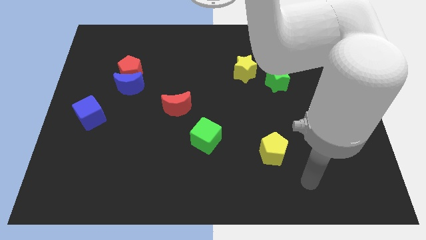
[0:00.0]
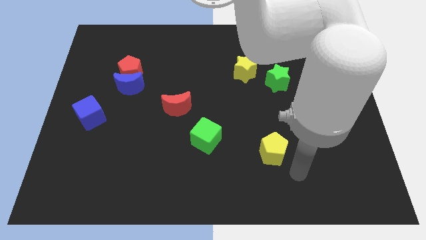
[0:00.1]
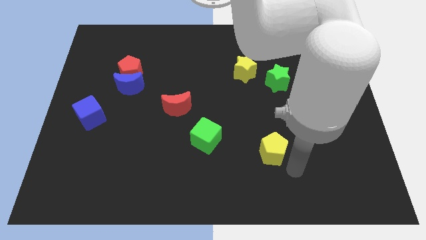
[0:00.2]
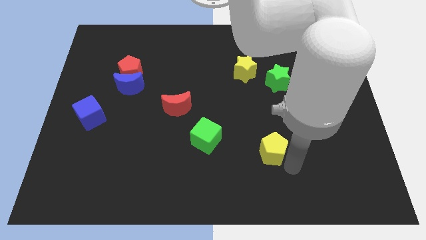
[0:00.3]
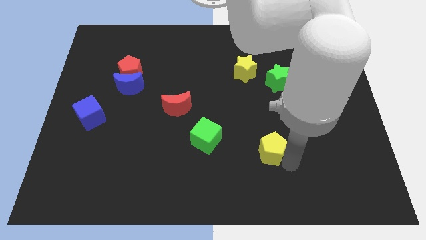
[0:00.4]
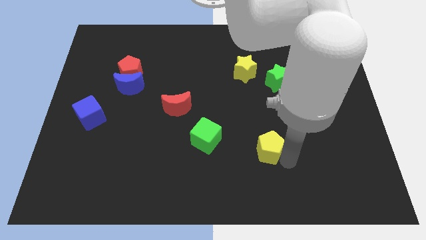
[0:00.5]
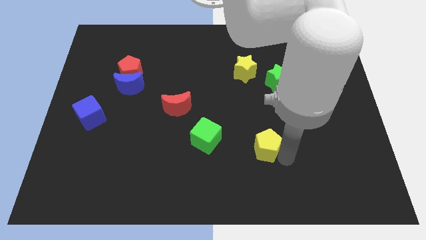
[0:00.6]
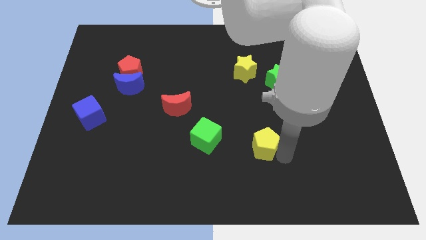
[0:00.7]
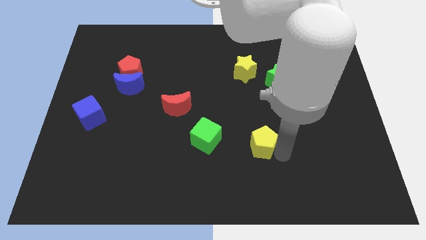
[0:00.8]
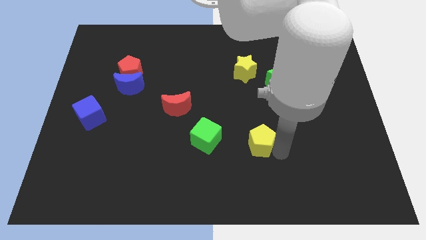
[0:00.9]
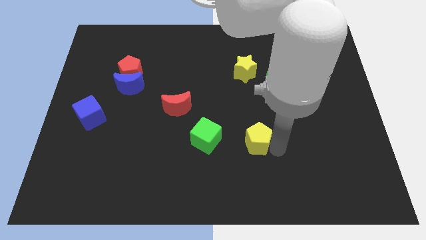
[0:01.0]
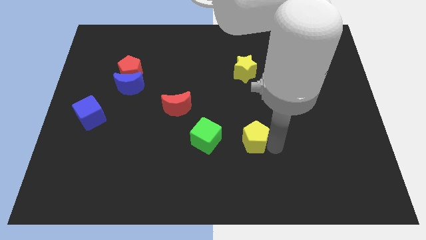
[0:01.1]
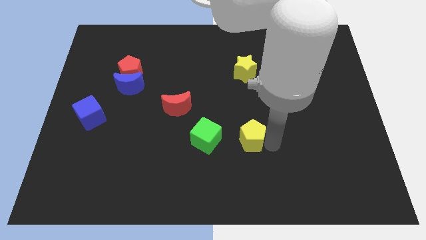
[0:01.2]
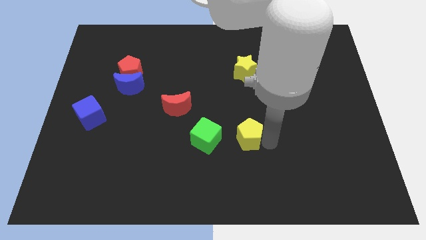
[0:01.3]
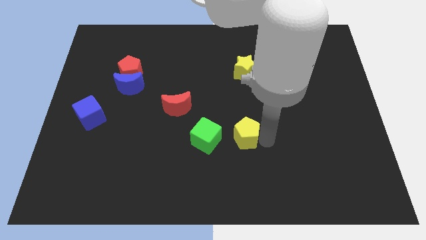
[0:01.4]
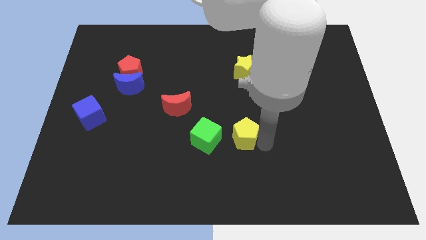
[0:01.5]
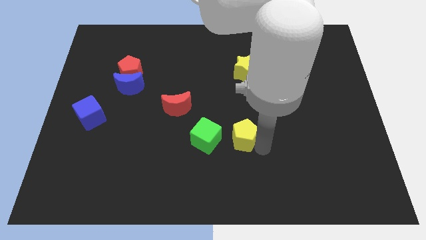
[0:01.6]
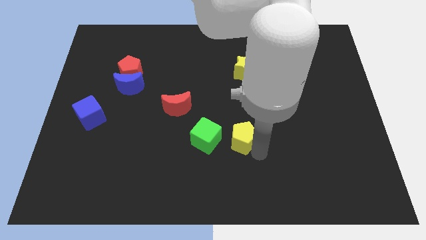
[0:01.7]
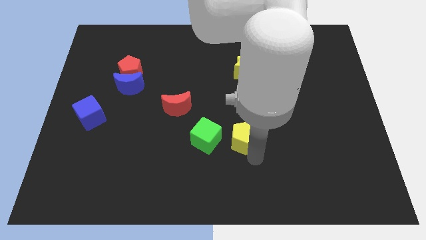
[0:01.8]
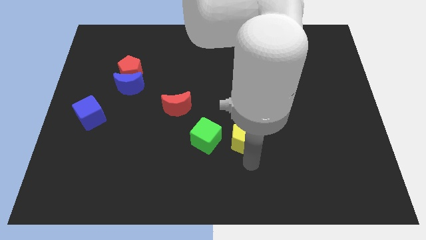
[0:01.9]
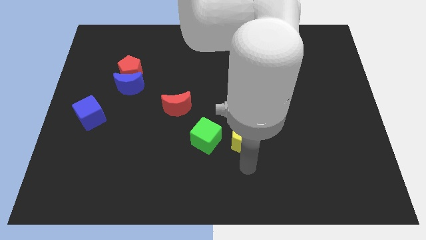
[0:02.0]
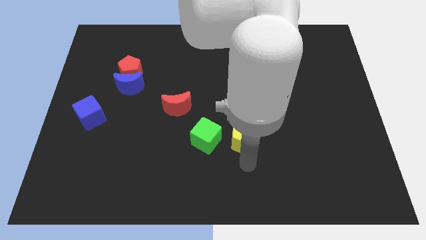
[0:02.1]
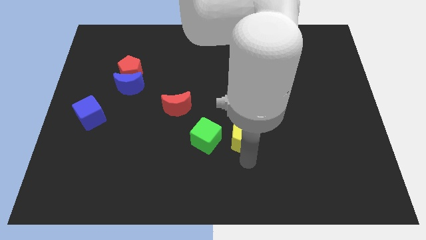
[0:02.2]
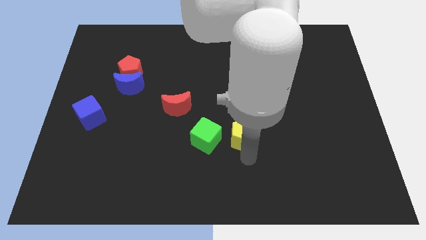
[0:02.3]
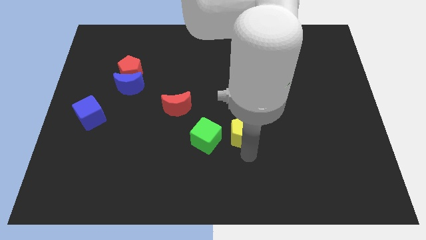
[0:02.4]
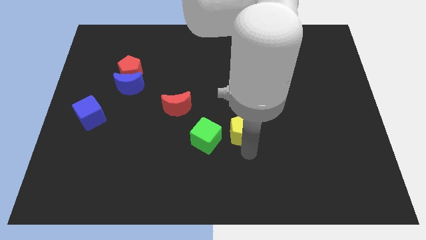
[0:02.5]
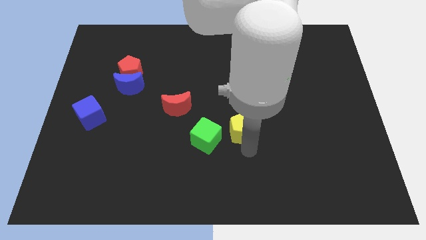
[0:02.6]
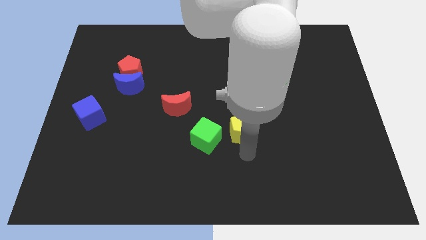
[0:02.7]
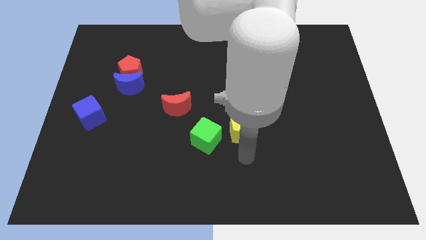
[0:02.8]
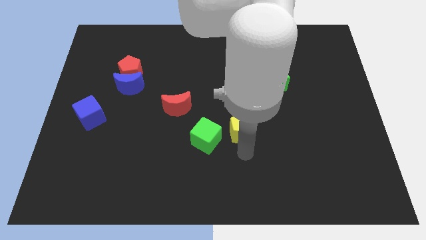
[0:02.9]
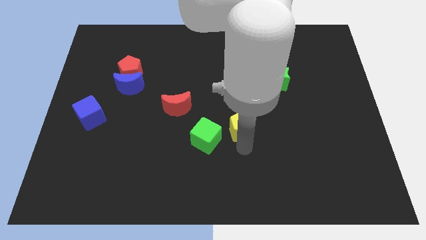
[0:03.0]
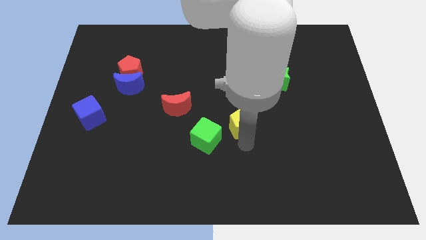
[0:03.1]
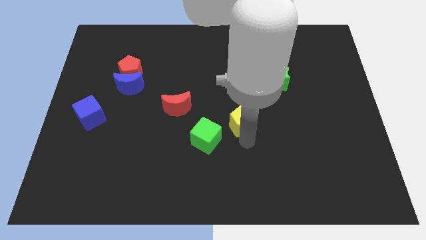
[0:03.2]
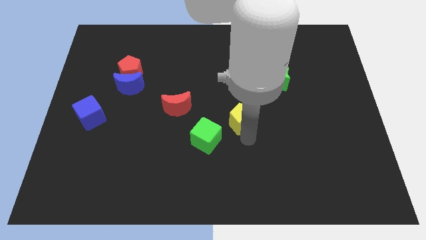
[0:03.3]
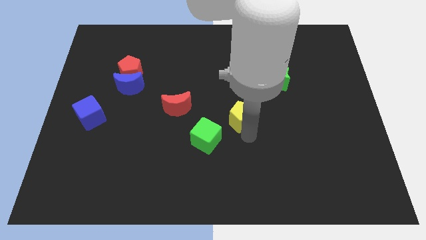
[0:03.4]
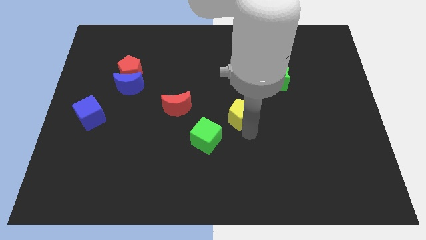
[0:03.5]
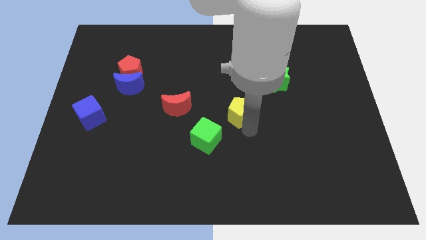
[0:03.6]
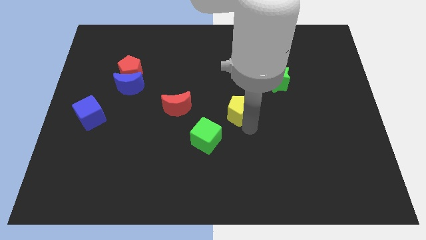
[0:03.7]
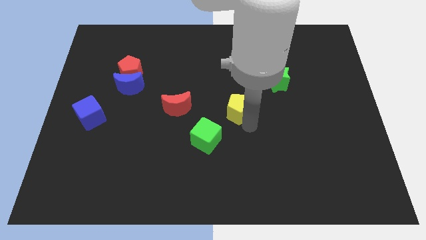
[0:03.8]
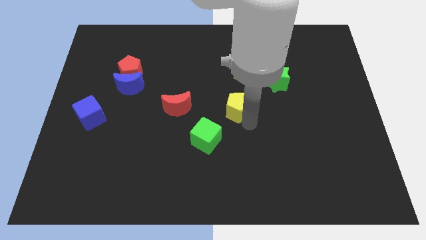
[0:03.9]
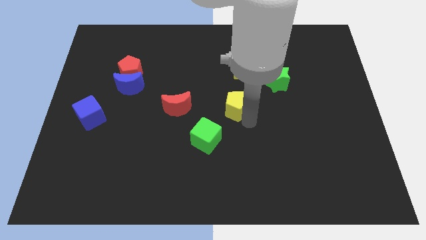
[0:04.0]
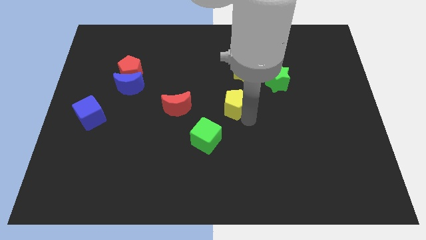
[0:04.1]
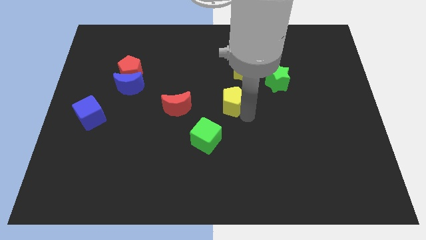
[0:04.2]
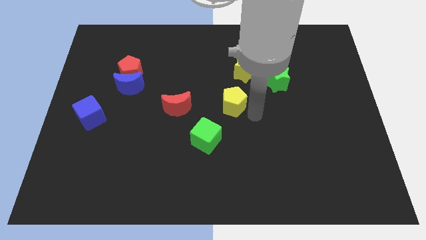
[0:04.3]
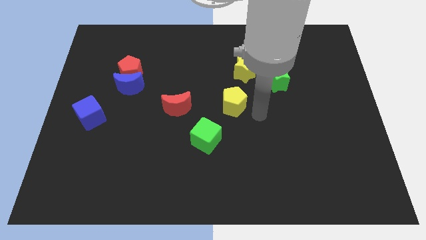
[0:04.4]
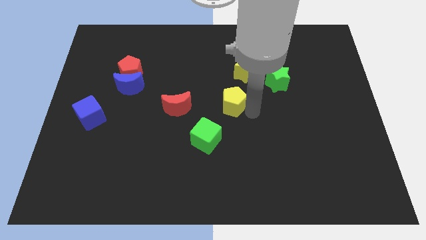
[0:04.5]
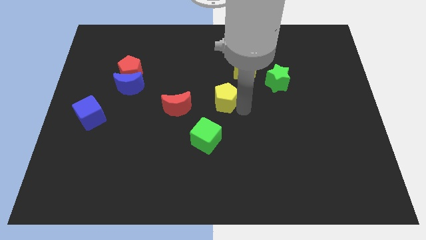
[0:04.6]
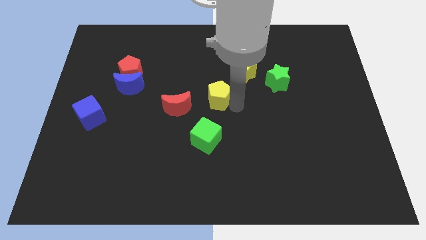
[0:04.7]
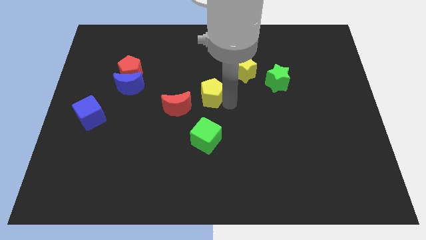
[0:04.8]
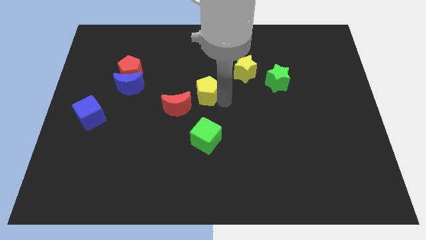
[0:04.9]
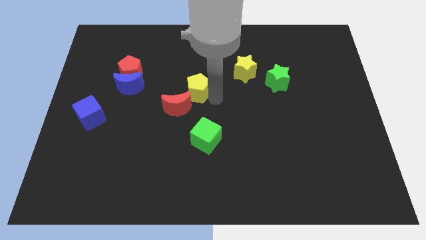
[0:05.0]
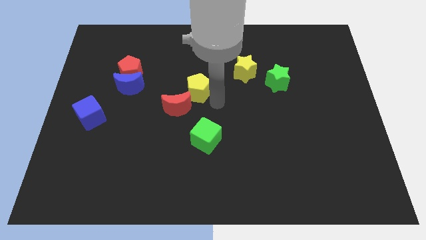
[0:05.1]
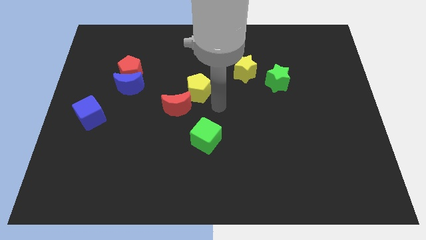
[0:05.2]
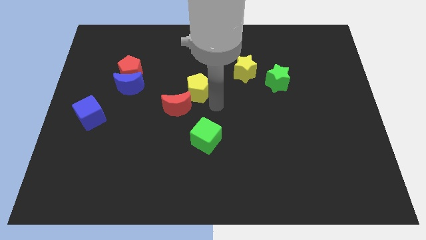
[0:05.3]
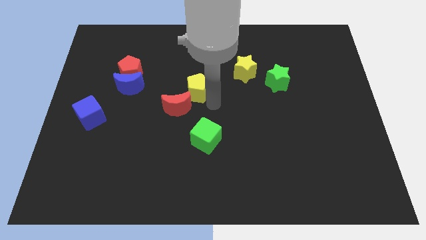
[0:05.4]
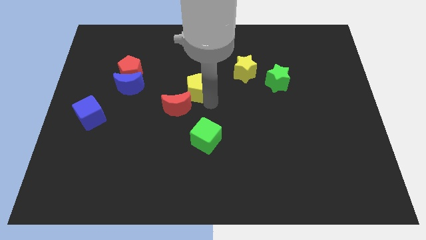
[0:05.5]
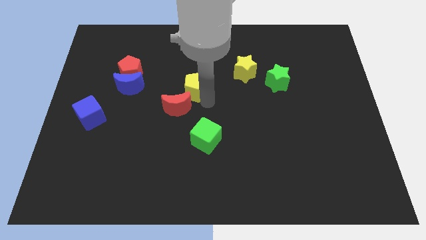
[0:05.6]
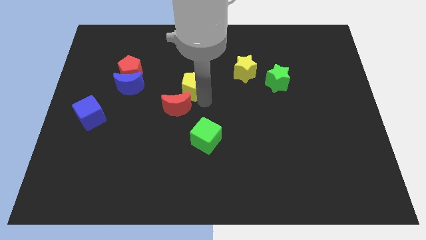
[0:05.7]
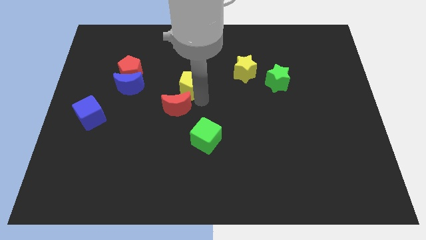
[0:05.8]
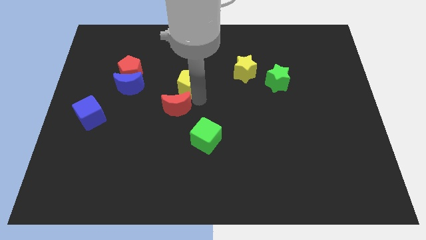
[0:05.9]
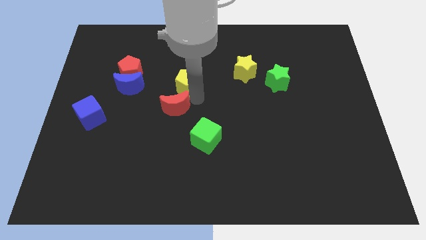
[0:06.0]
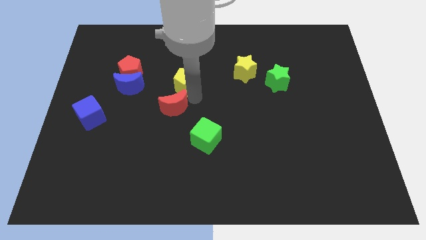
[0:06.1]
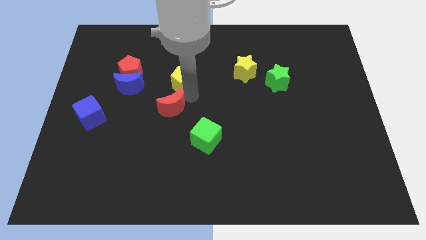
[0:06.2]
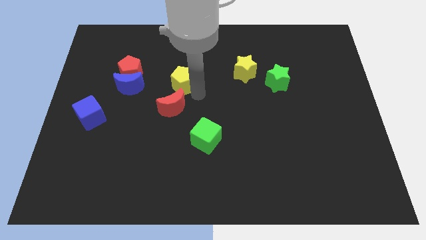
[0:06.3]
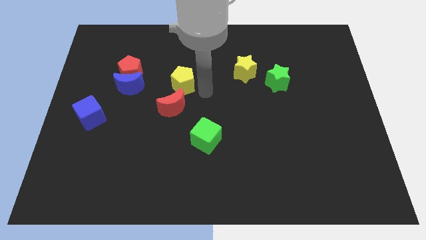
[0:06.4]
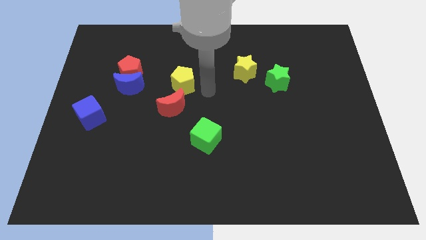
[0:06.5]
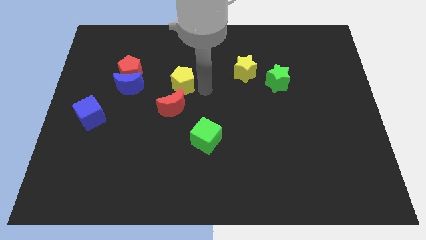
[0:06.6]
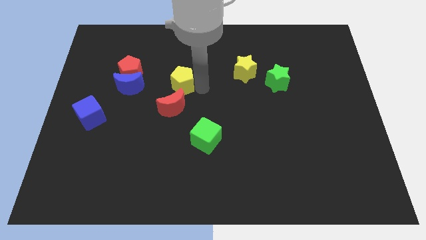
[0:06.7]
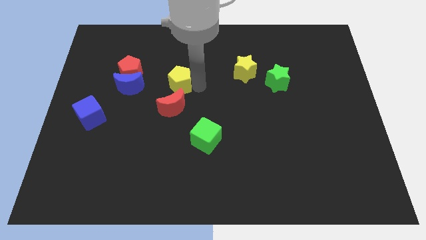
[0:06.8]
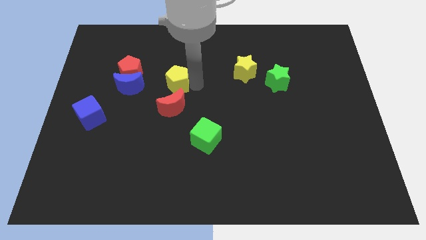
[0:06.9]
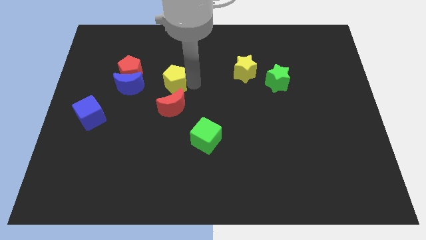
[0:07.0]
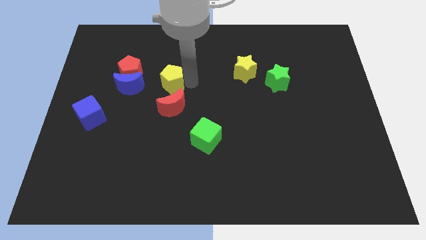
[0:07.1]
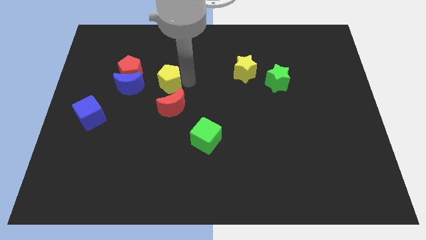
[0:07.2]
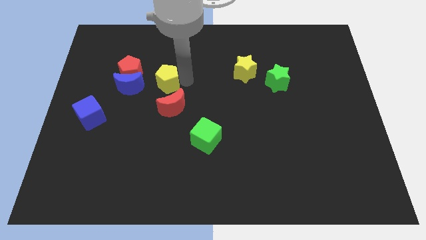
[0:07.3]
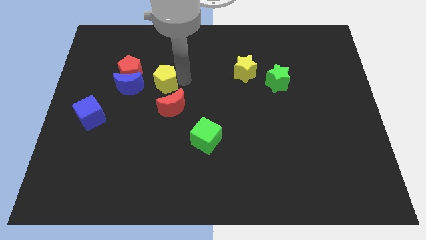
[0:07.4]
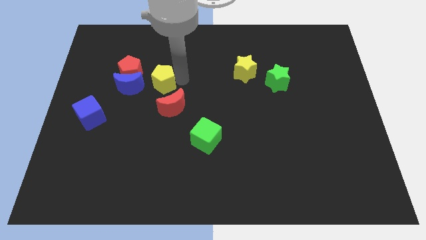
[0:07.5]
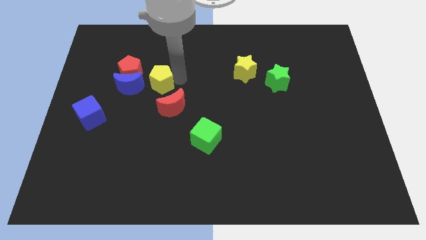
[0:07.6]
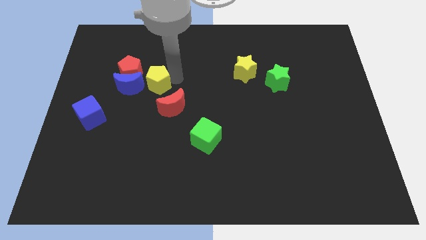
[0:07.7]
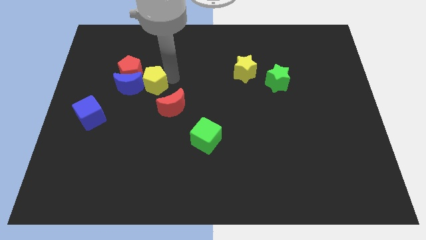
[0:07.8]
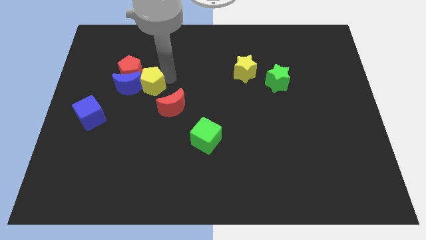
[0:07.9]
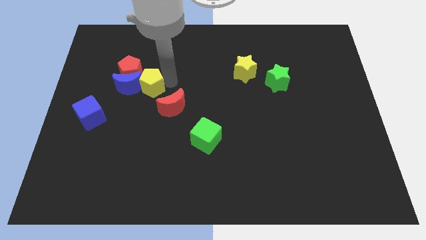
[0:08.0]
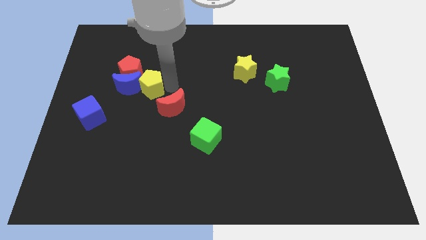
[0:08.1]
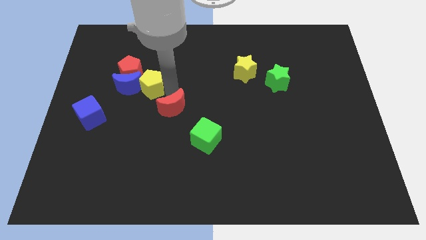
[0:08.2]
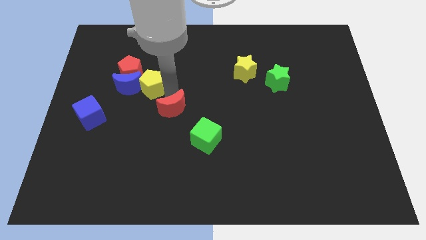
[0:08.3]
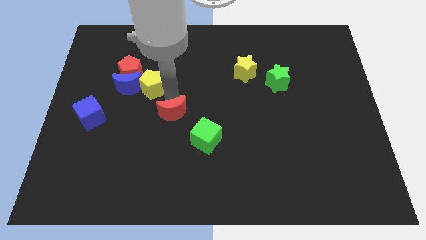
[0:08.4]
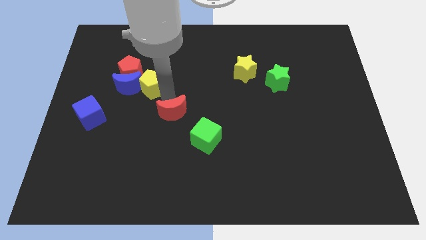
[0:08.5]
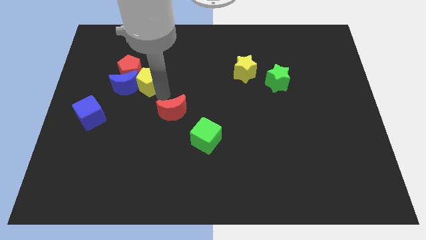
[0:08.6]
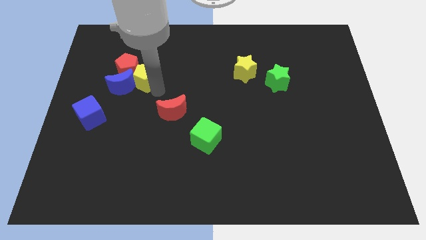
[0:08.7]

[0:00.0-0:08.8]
put the yellow pentagon towards the red pentagon
